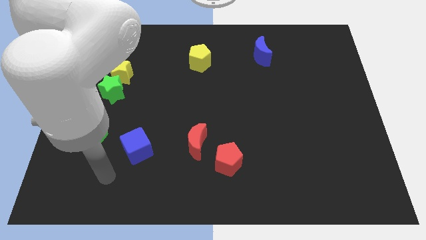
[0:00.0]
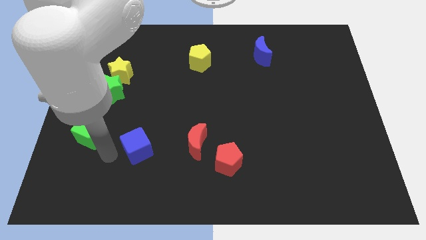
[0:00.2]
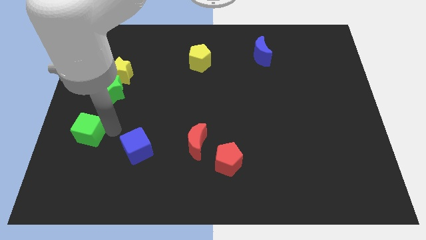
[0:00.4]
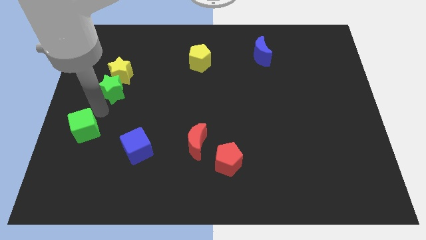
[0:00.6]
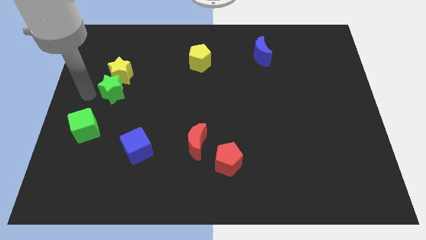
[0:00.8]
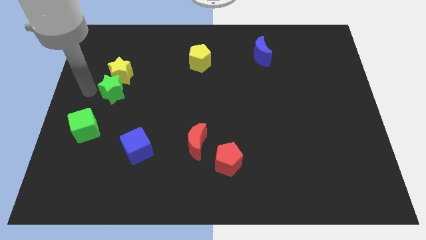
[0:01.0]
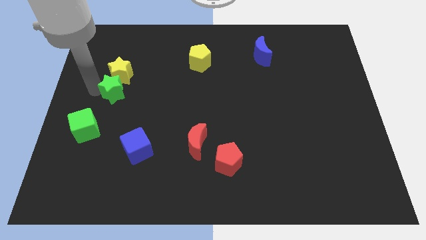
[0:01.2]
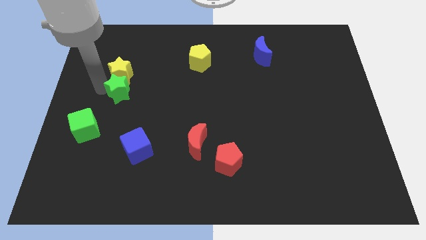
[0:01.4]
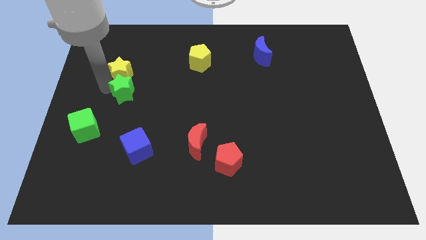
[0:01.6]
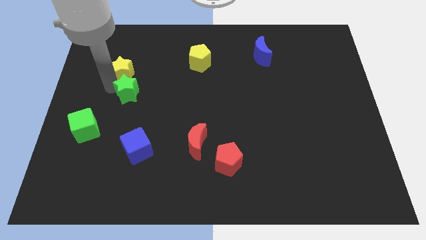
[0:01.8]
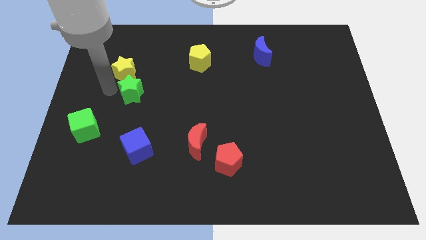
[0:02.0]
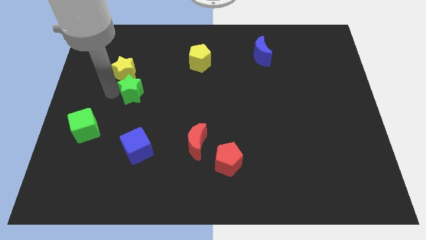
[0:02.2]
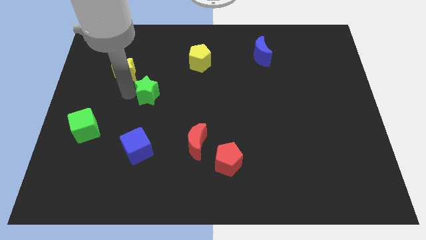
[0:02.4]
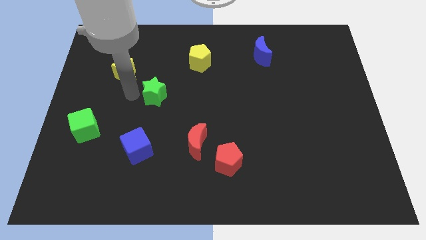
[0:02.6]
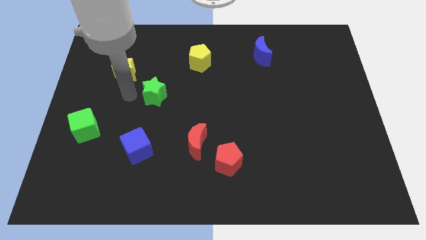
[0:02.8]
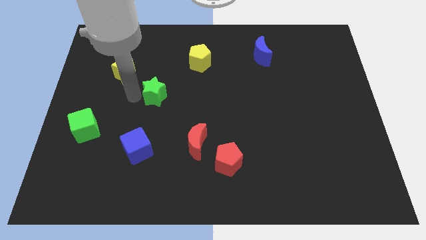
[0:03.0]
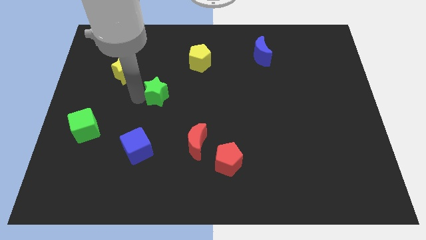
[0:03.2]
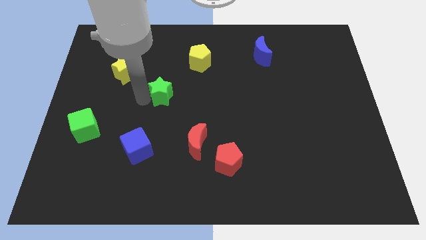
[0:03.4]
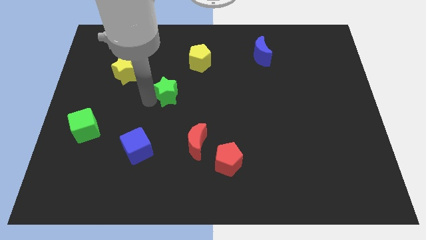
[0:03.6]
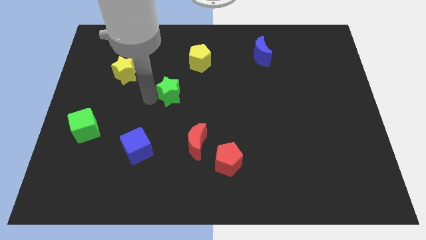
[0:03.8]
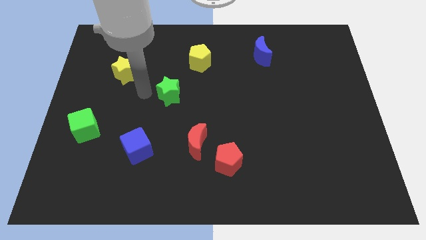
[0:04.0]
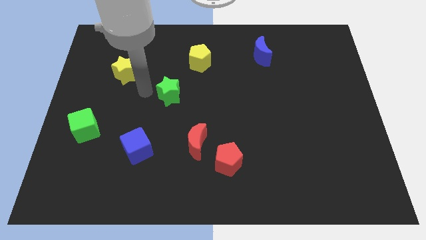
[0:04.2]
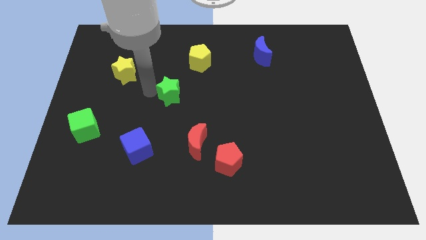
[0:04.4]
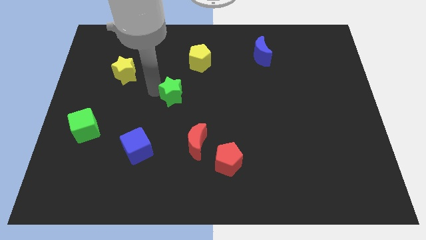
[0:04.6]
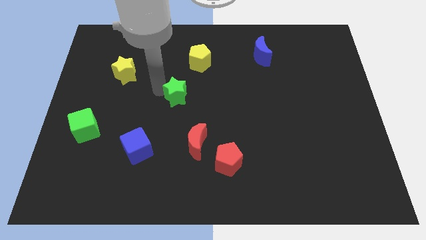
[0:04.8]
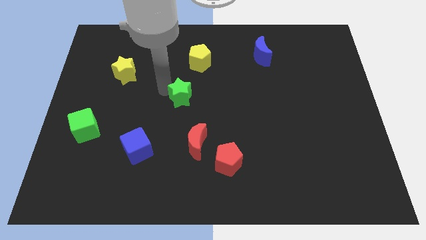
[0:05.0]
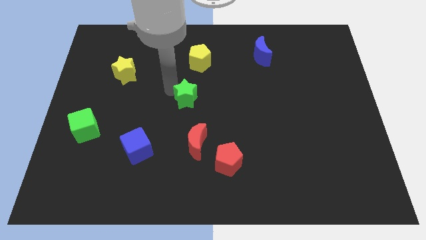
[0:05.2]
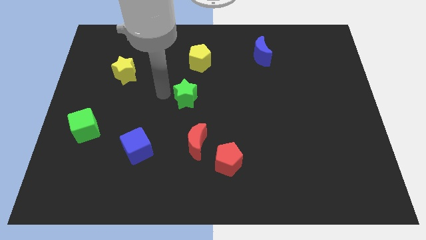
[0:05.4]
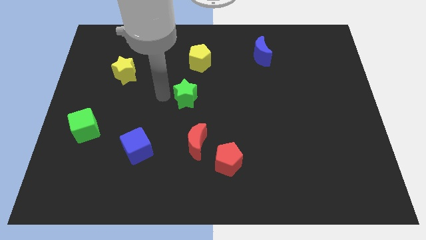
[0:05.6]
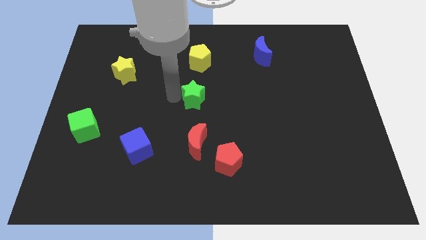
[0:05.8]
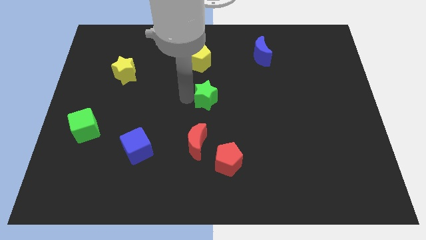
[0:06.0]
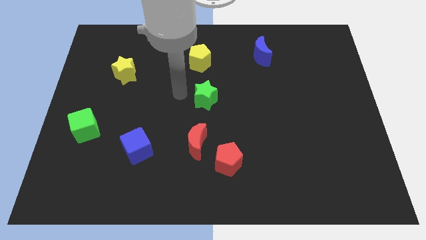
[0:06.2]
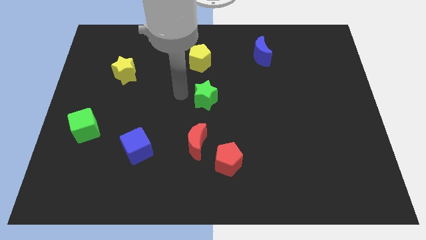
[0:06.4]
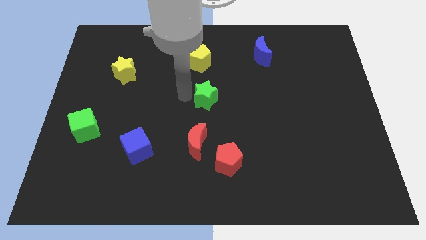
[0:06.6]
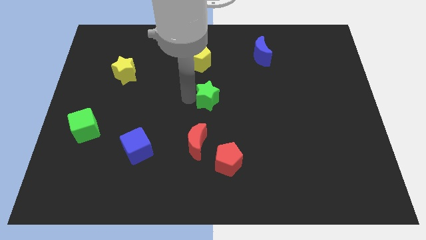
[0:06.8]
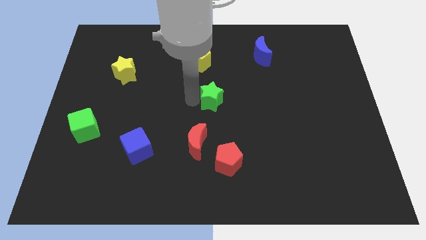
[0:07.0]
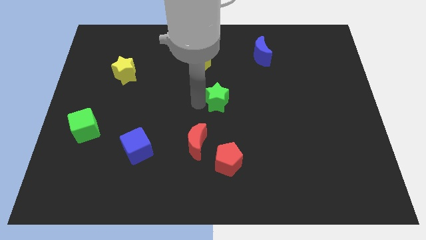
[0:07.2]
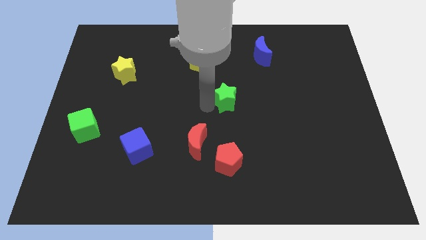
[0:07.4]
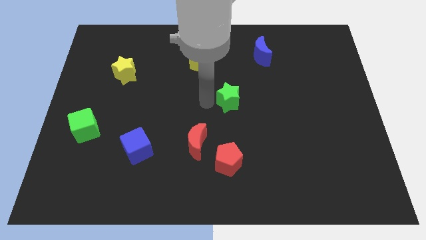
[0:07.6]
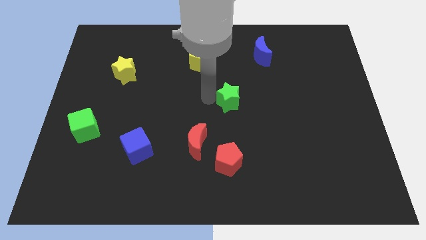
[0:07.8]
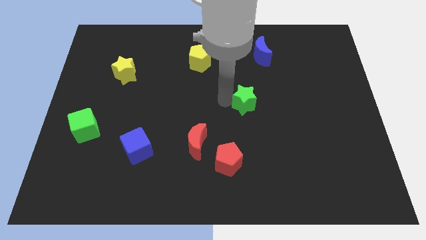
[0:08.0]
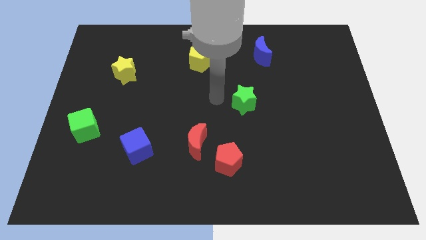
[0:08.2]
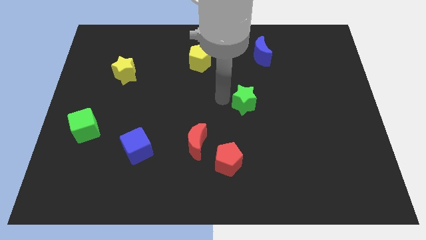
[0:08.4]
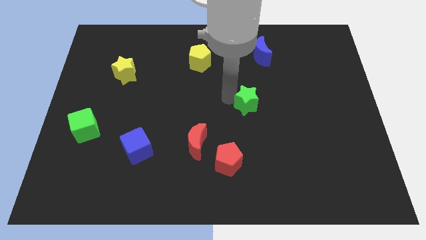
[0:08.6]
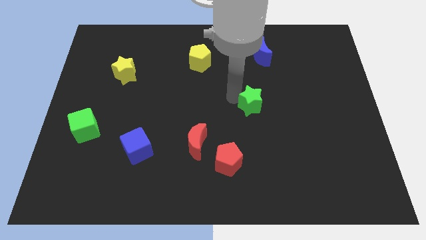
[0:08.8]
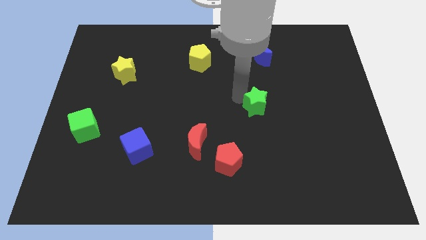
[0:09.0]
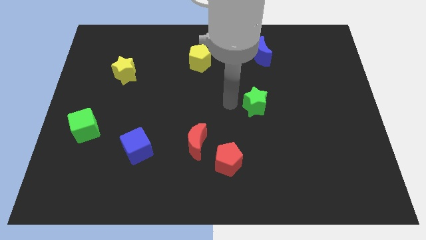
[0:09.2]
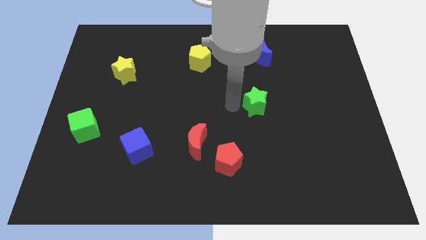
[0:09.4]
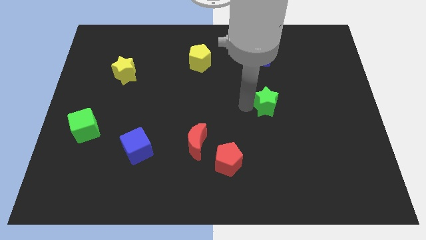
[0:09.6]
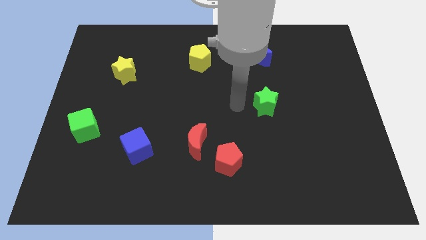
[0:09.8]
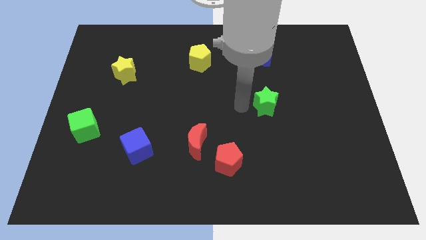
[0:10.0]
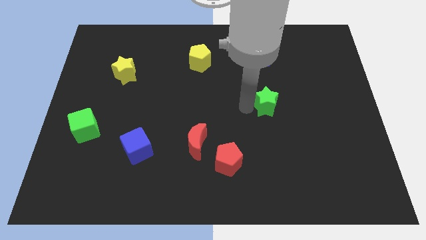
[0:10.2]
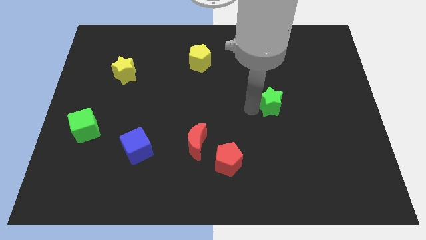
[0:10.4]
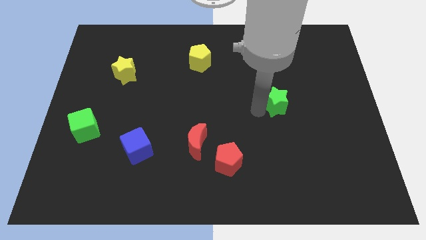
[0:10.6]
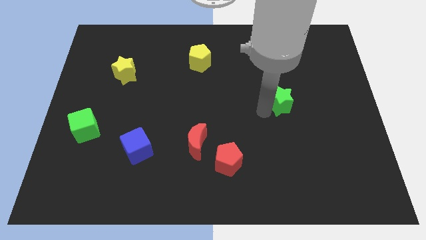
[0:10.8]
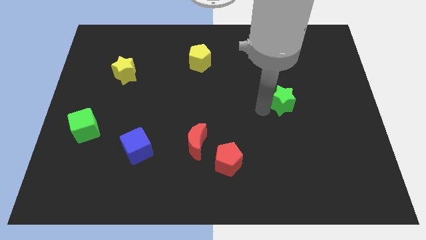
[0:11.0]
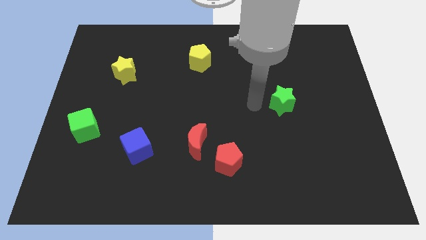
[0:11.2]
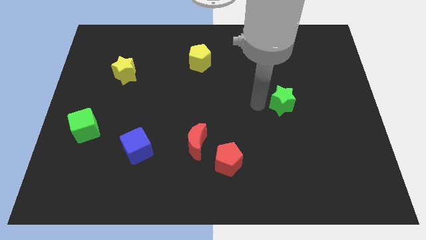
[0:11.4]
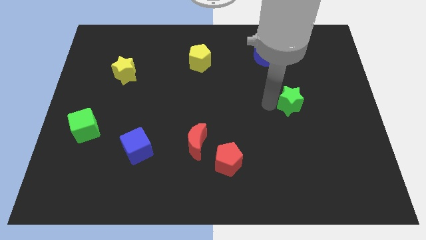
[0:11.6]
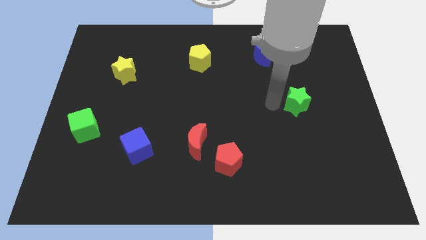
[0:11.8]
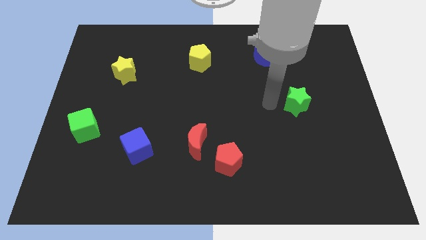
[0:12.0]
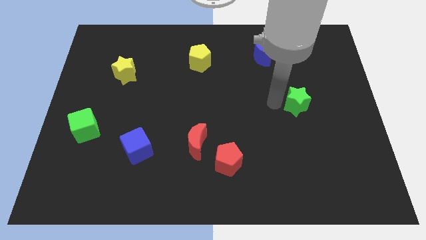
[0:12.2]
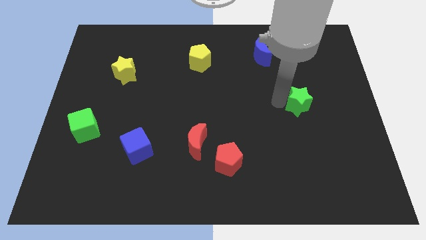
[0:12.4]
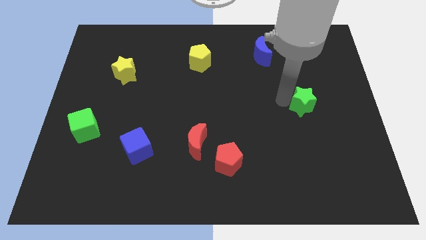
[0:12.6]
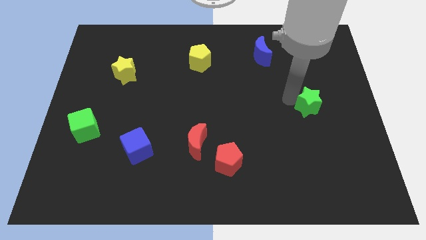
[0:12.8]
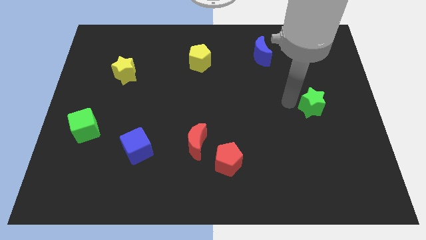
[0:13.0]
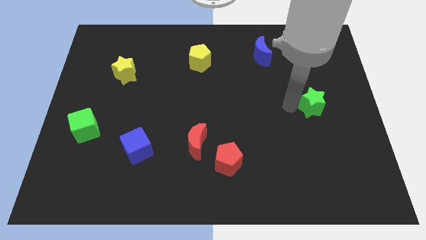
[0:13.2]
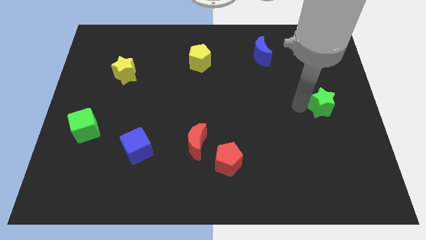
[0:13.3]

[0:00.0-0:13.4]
push the green star to the center right

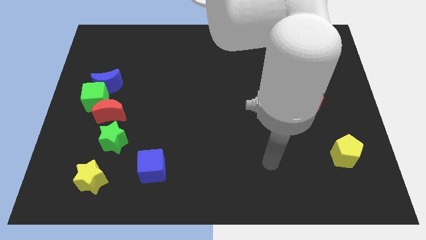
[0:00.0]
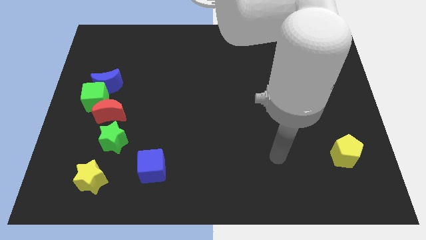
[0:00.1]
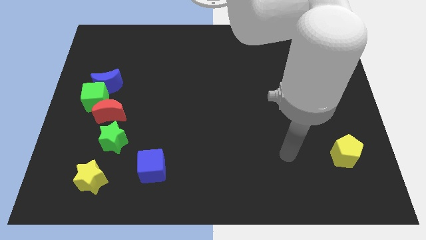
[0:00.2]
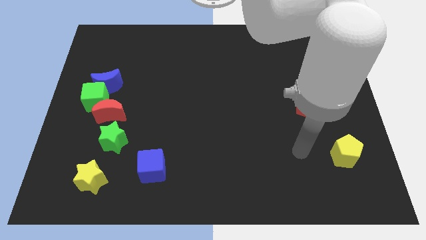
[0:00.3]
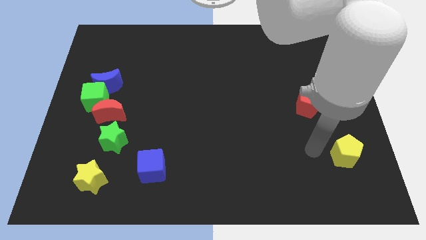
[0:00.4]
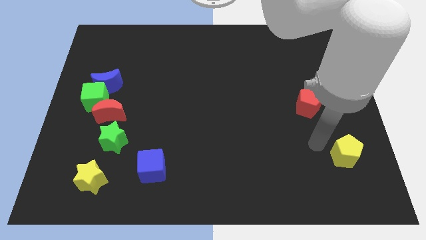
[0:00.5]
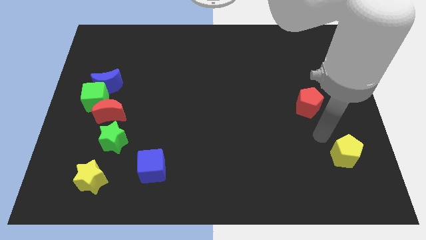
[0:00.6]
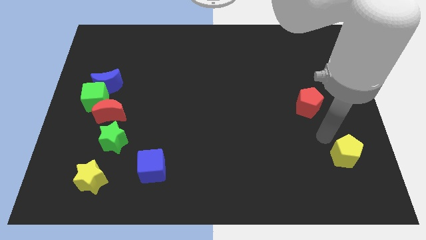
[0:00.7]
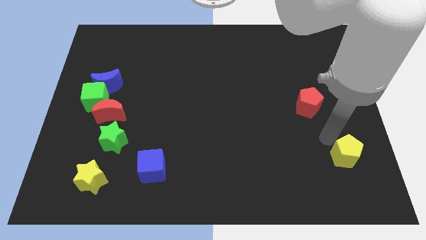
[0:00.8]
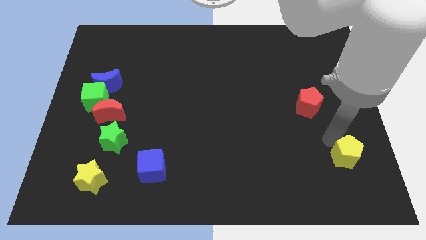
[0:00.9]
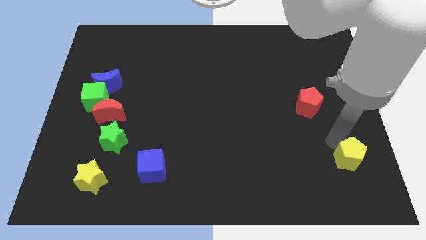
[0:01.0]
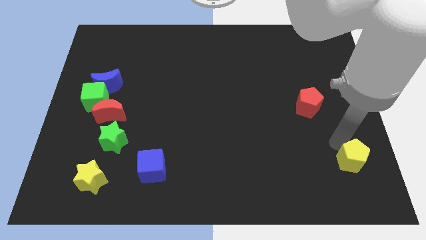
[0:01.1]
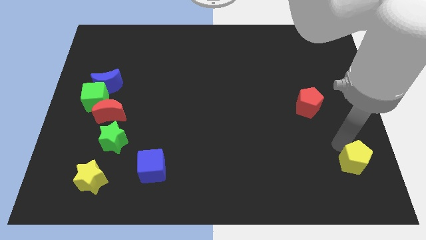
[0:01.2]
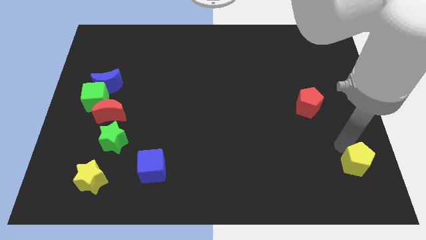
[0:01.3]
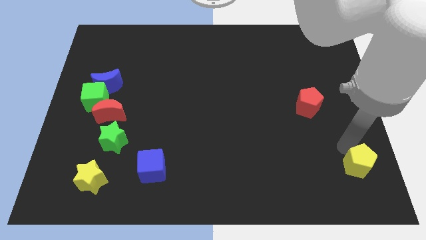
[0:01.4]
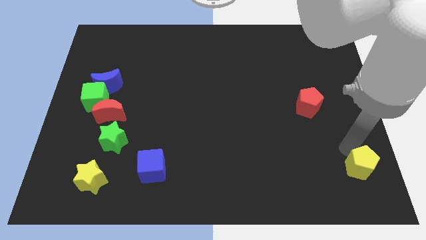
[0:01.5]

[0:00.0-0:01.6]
move the yellow pentagon to the lower right corner
